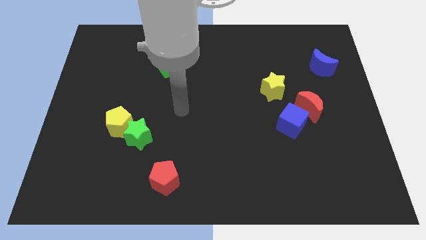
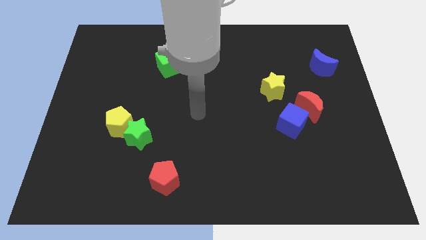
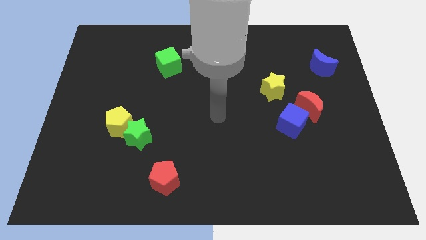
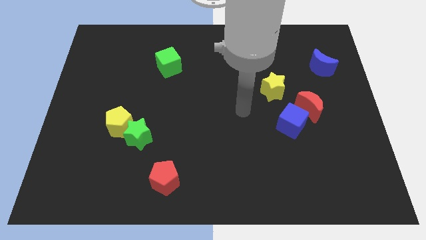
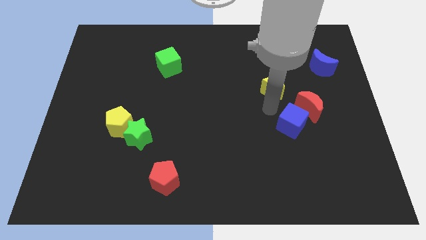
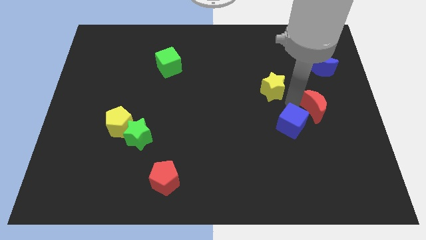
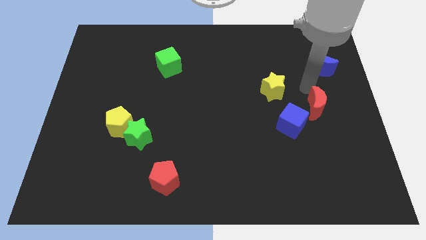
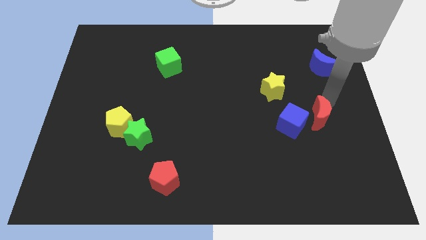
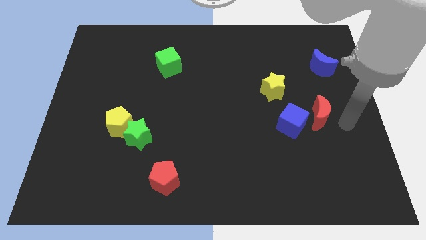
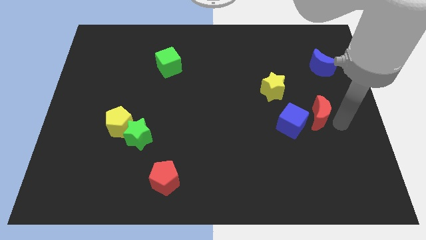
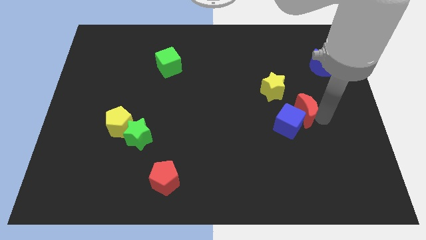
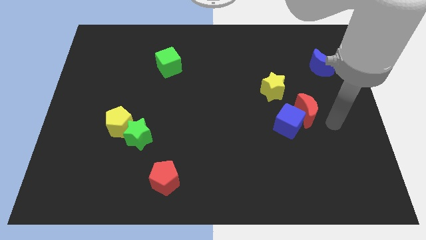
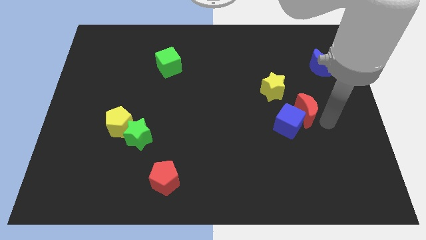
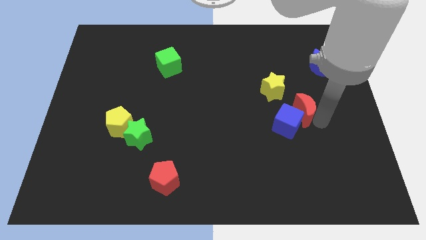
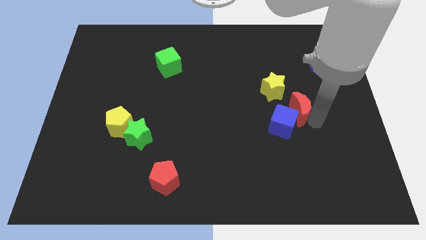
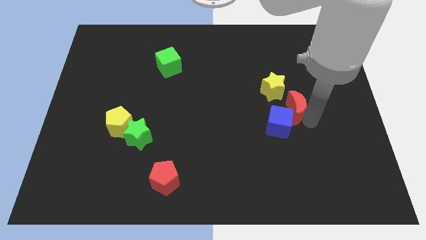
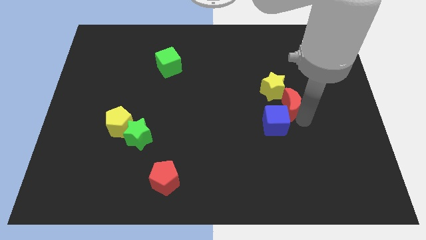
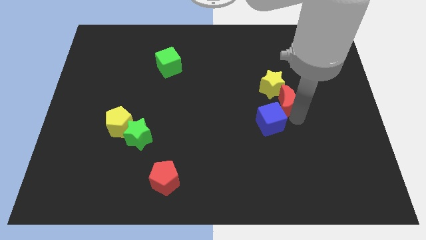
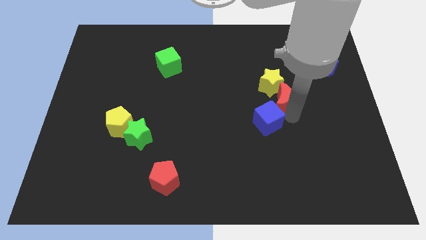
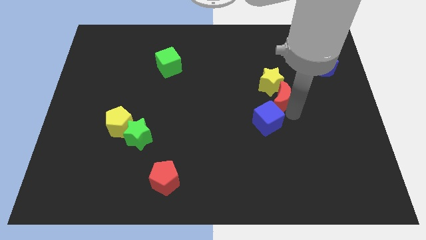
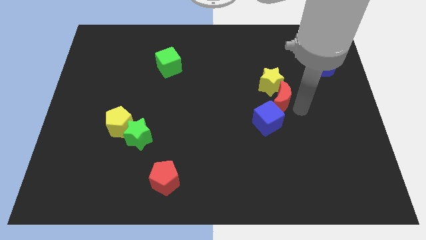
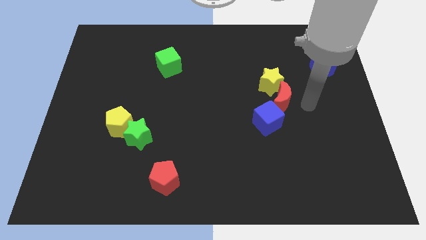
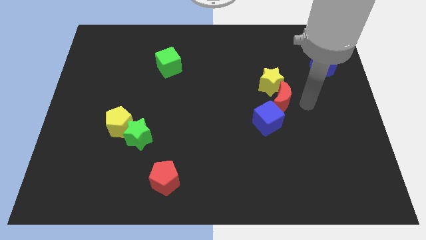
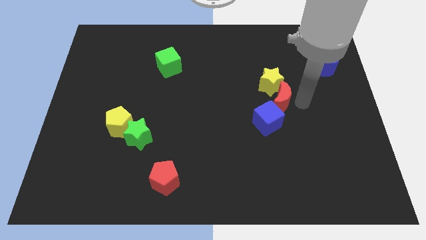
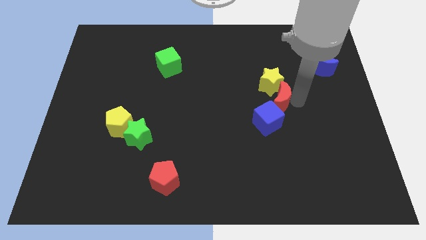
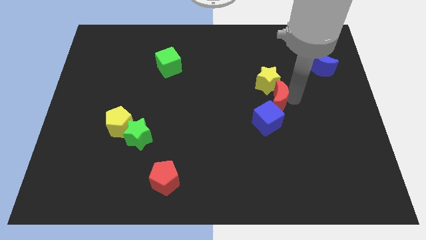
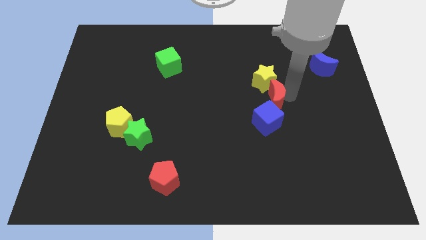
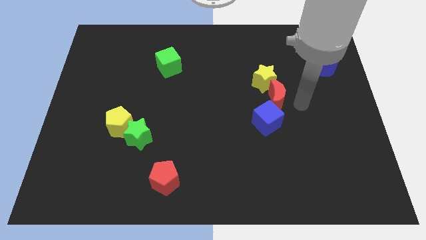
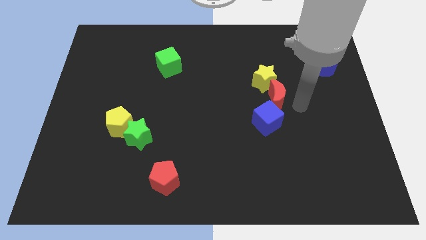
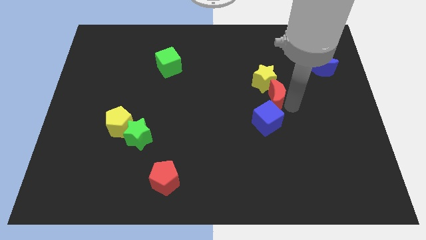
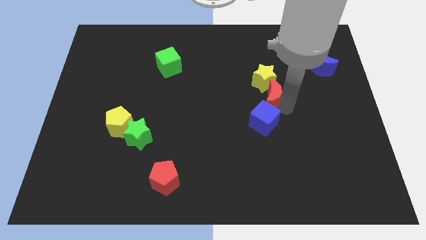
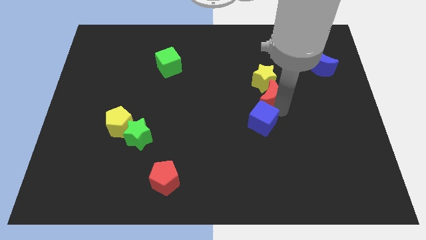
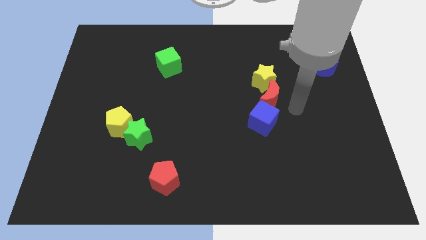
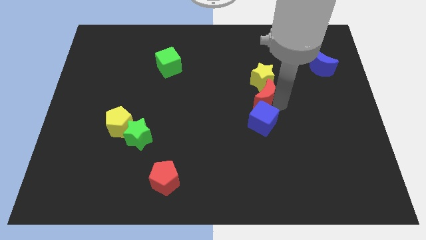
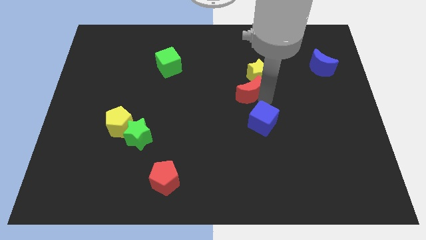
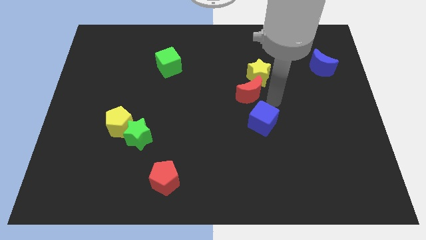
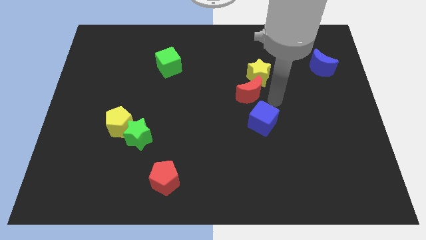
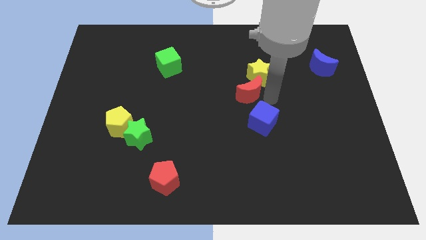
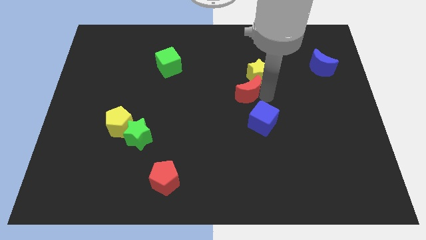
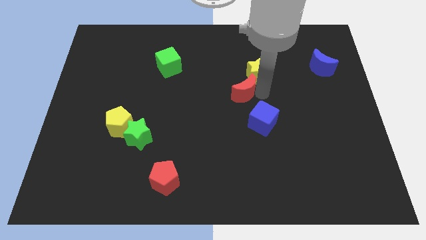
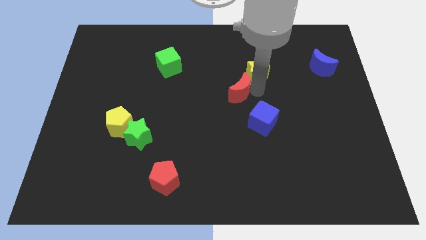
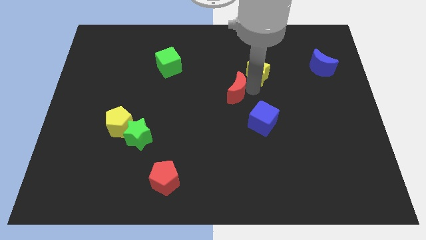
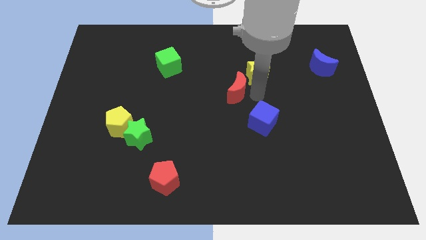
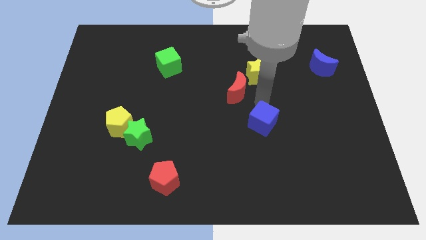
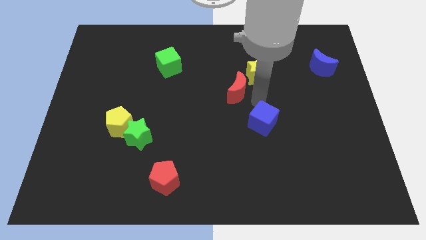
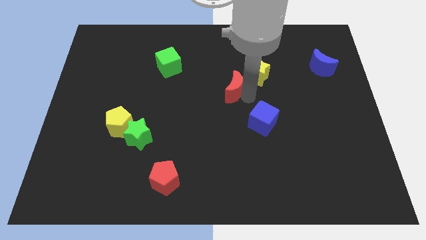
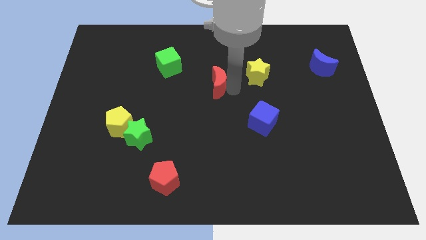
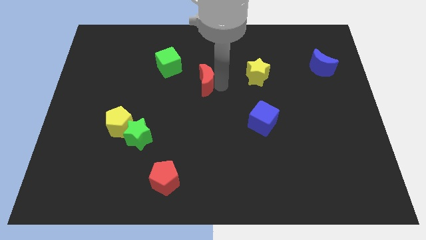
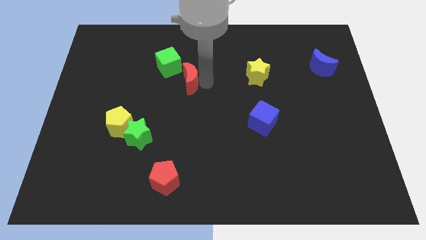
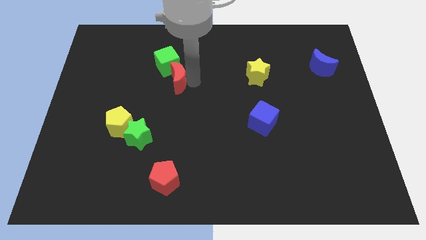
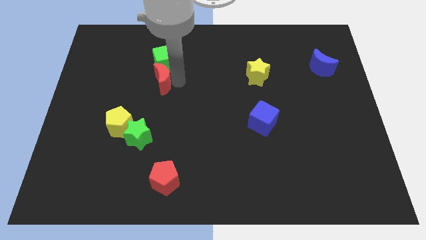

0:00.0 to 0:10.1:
slide the red moon to the bottom left side of the green cube

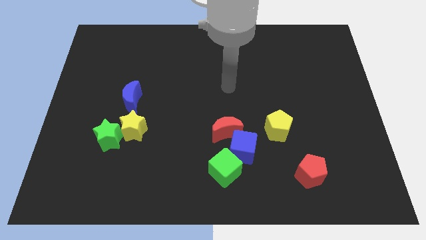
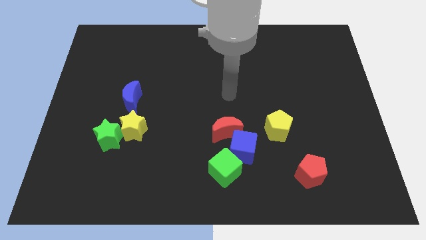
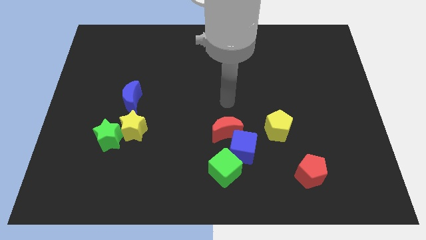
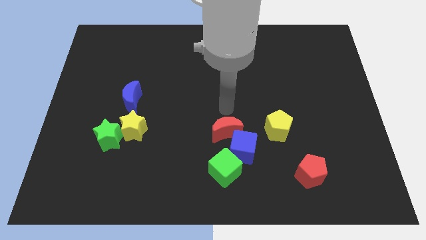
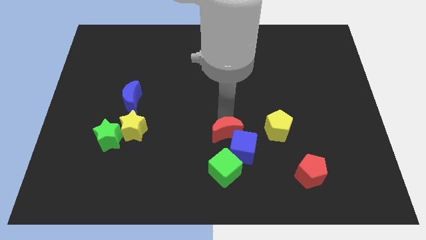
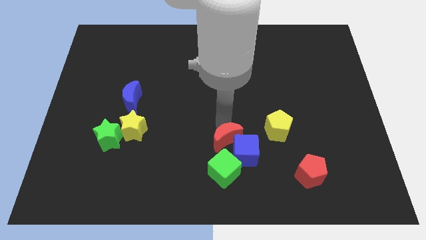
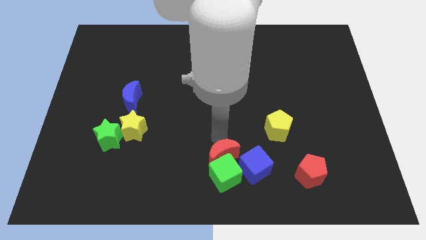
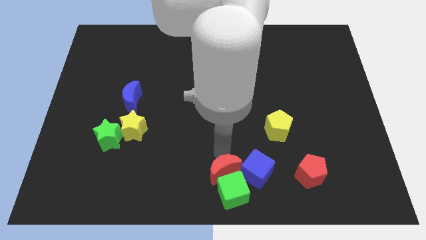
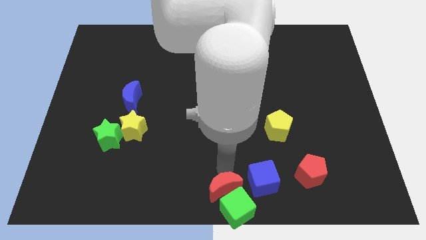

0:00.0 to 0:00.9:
move the blue cube to the bottom of the yellow pentagon

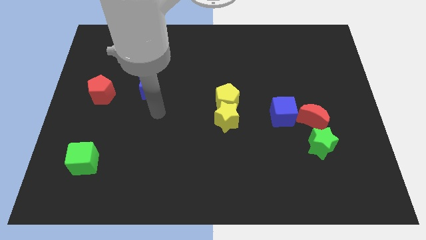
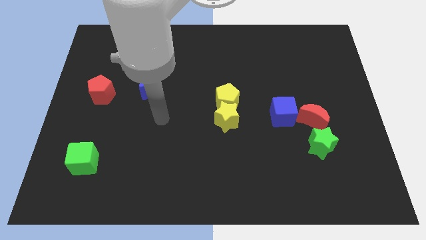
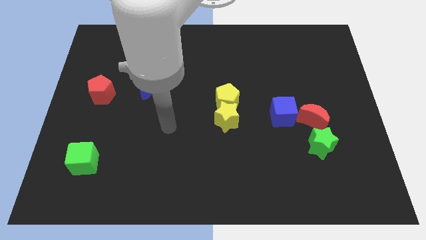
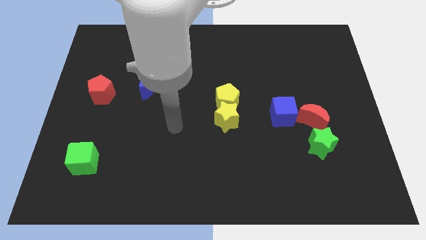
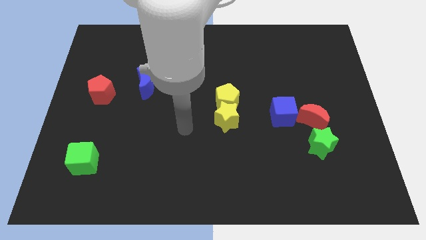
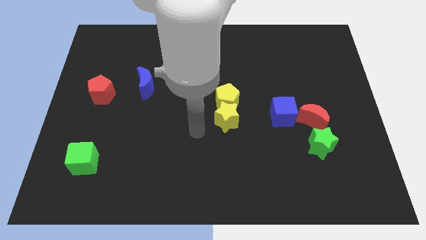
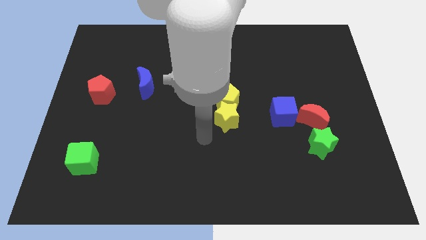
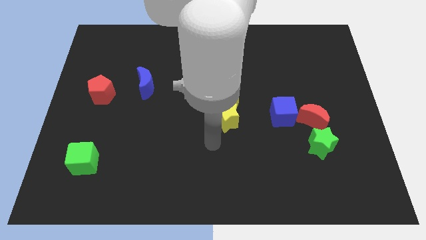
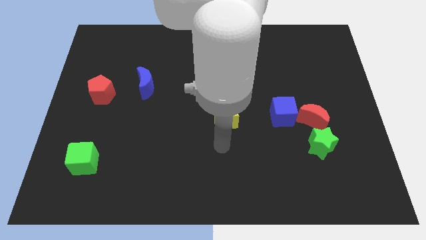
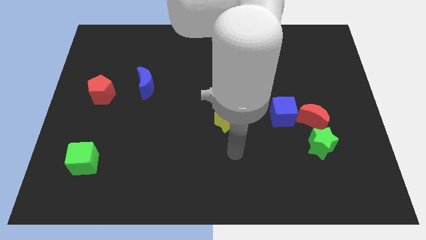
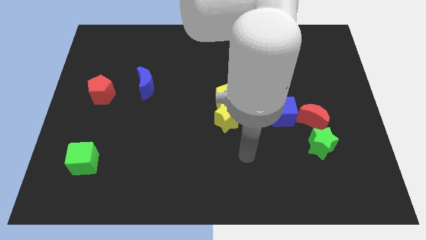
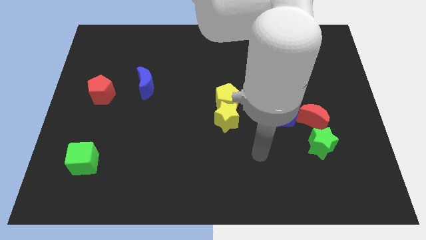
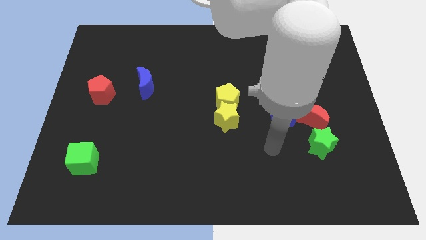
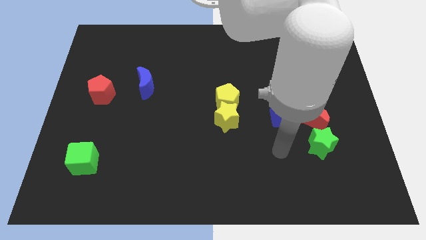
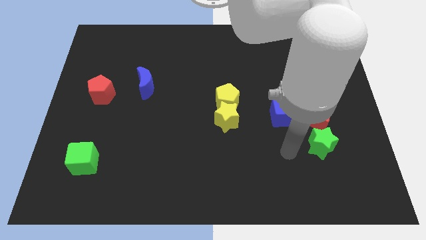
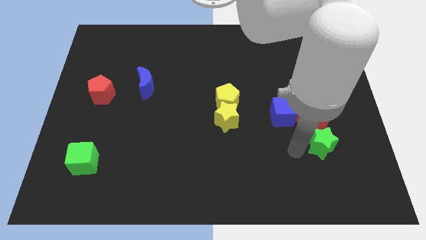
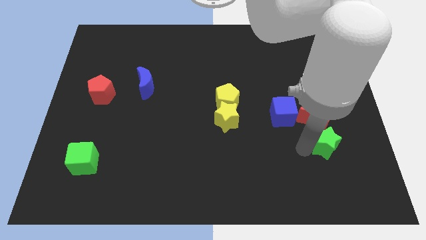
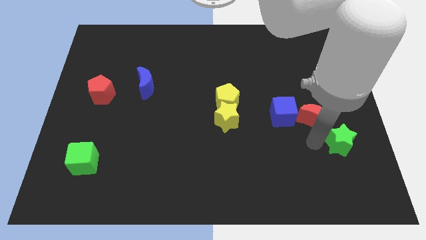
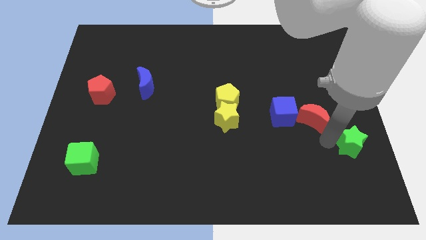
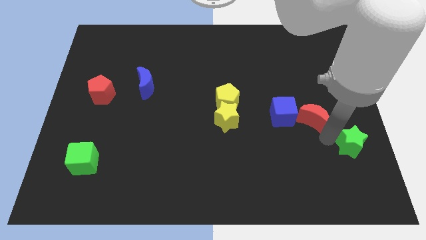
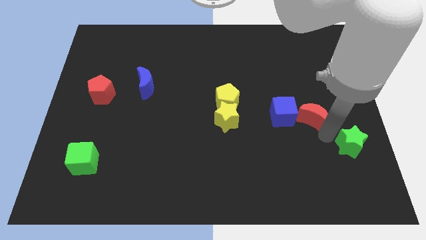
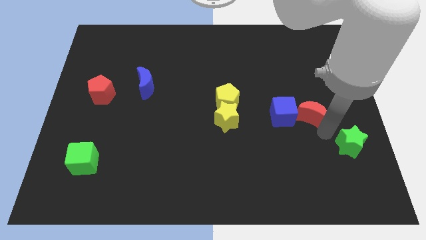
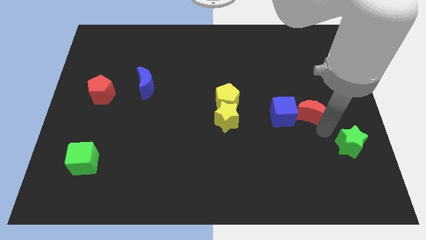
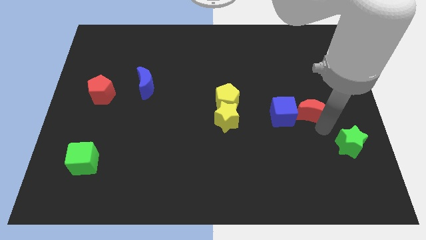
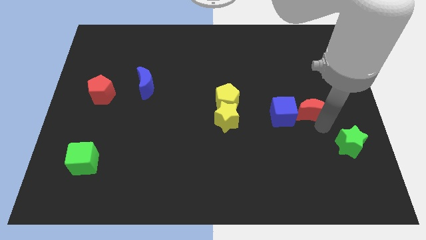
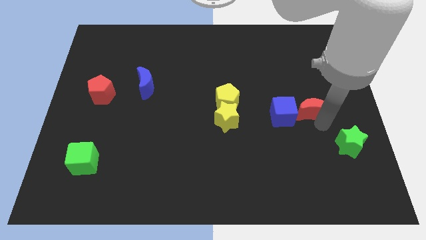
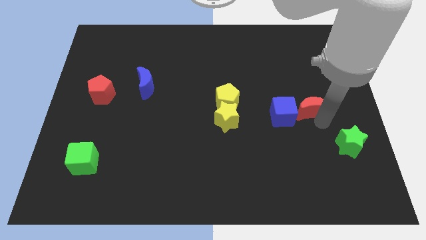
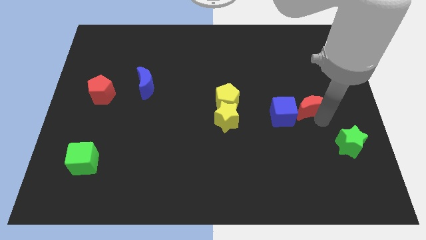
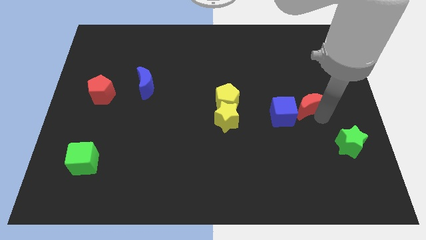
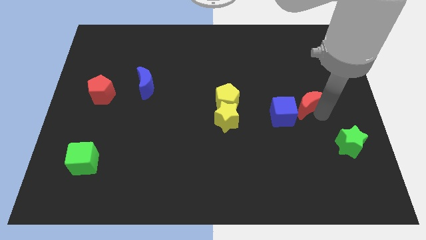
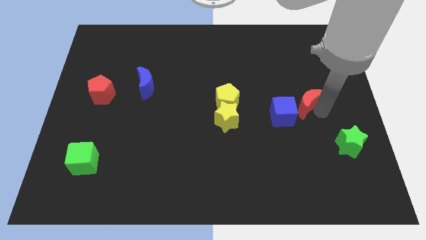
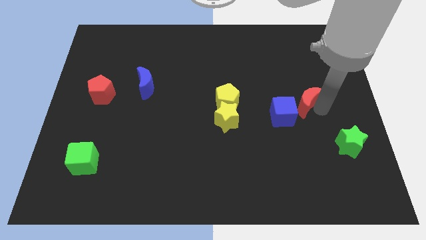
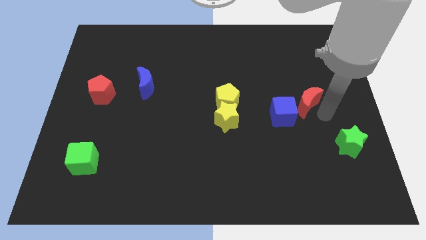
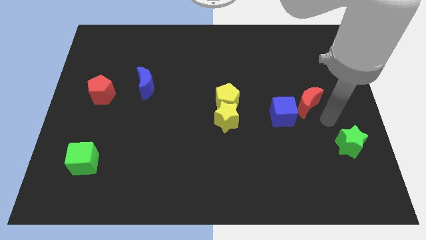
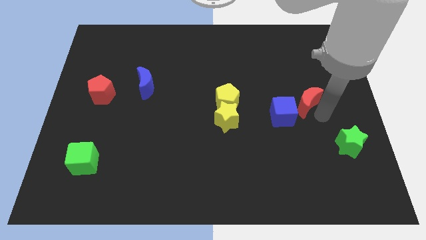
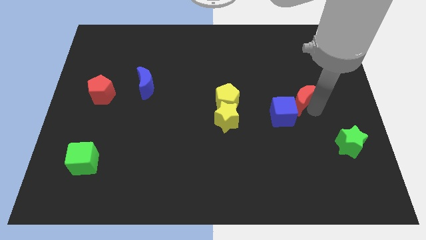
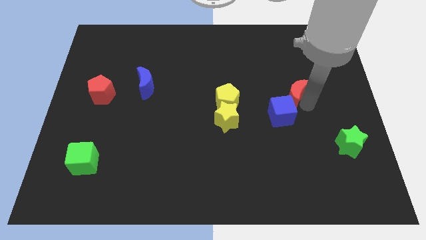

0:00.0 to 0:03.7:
move the red moon above the blue cube
